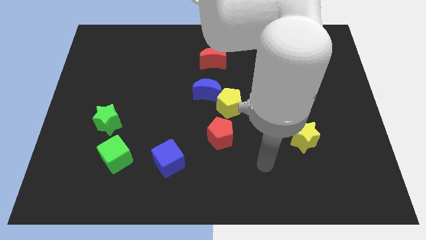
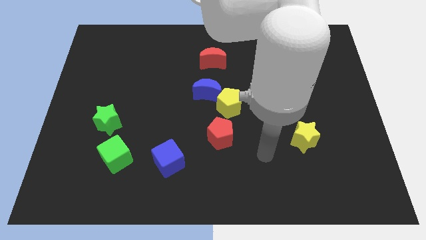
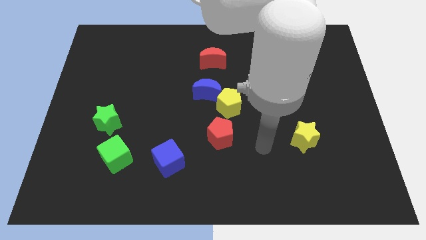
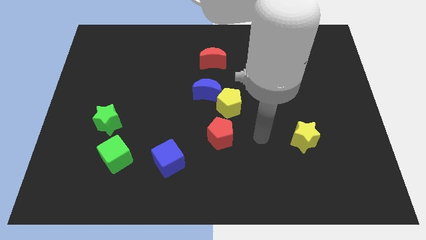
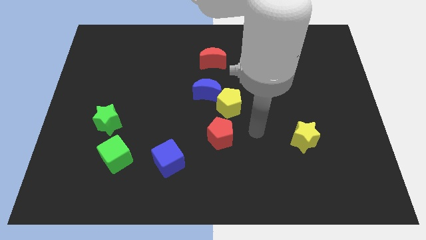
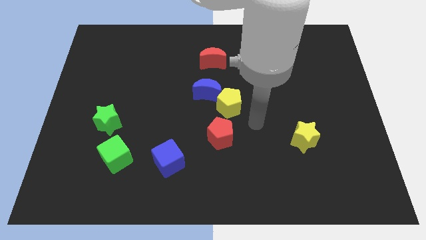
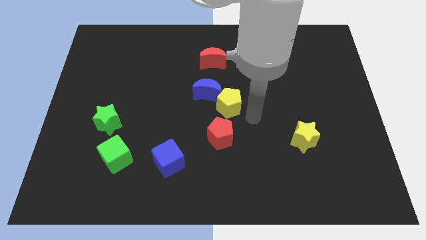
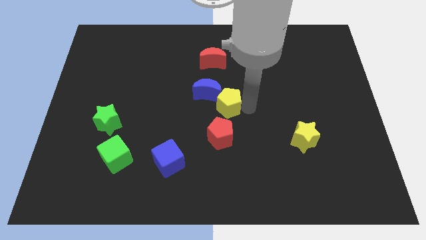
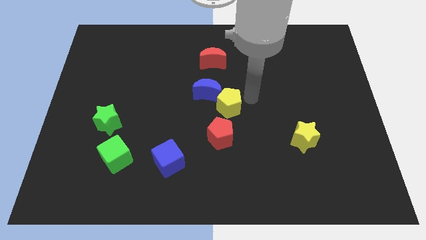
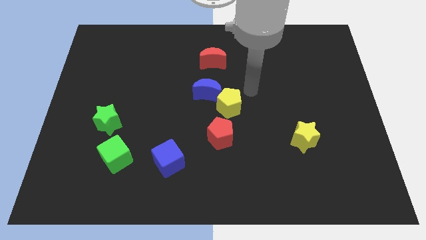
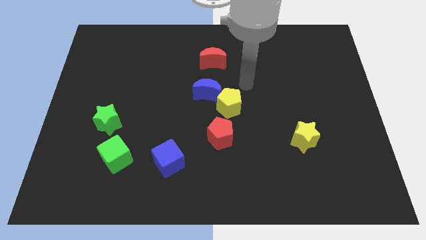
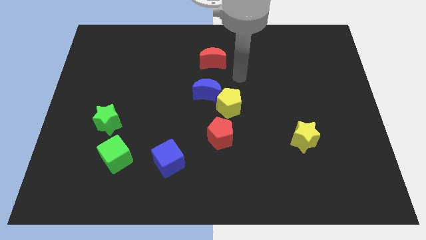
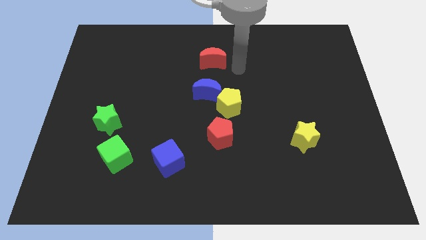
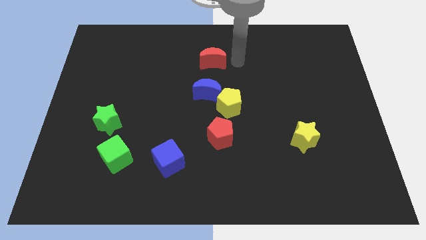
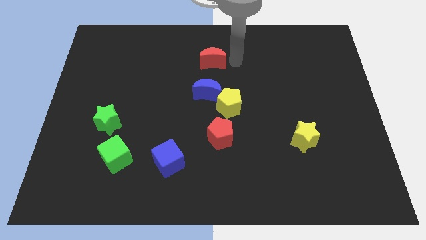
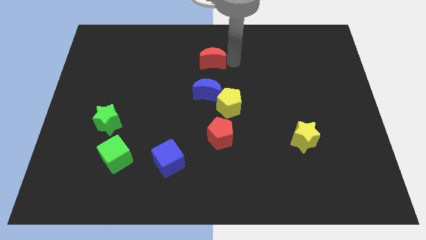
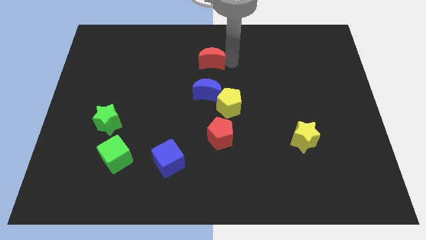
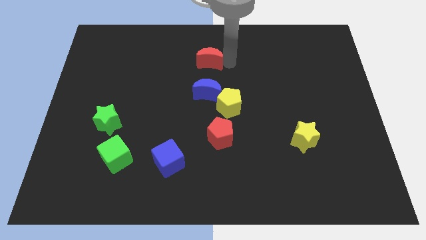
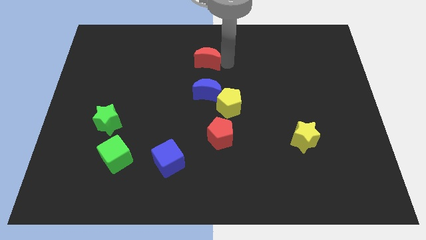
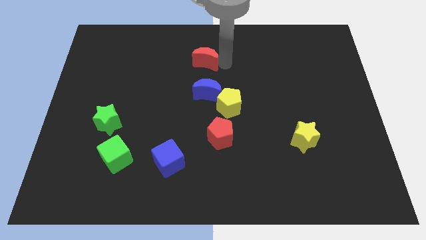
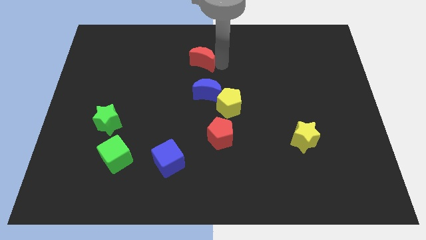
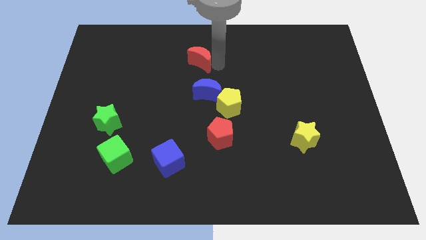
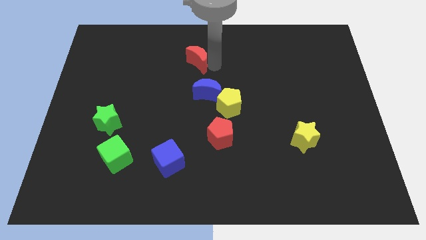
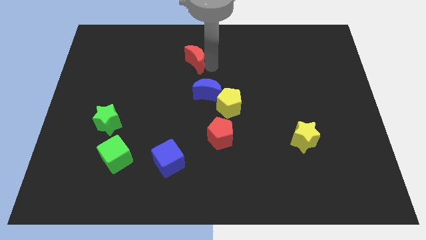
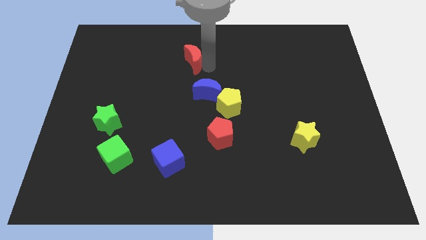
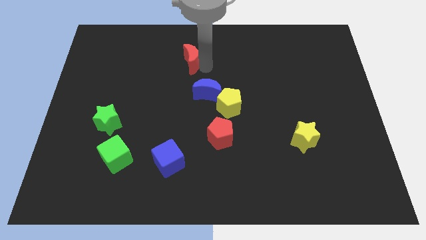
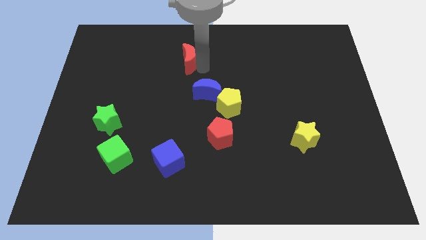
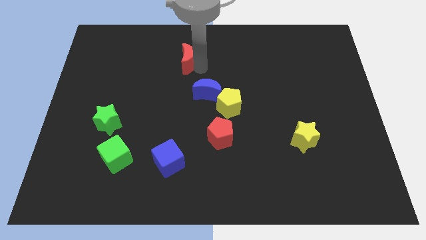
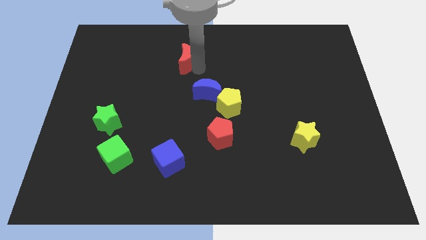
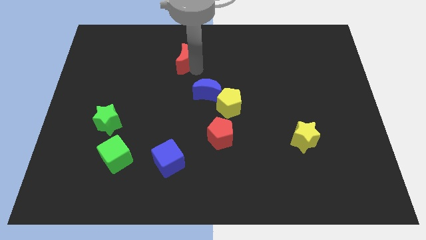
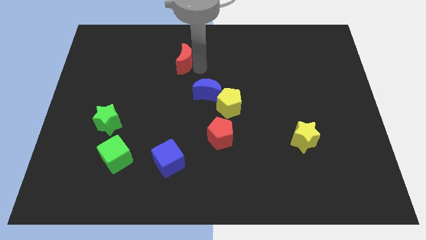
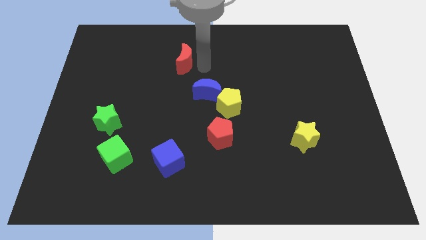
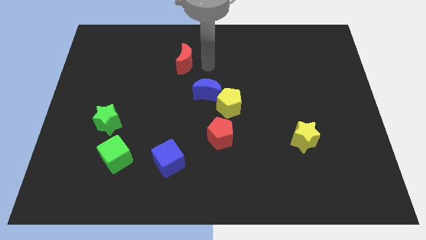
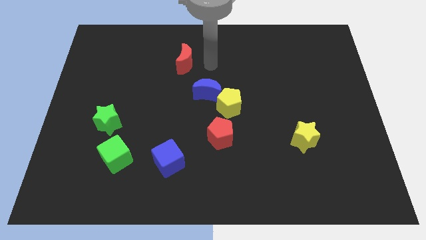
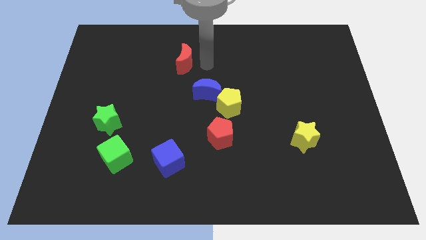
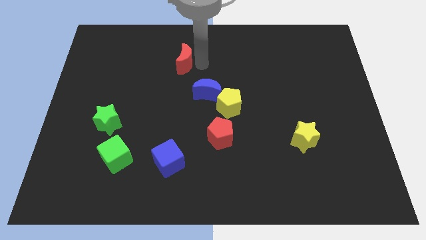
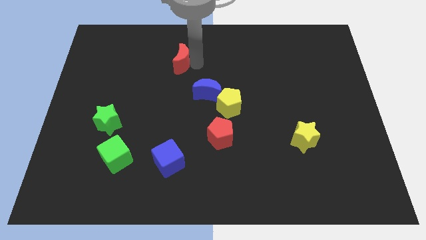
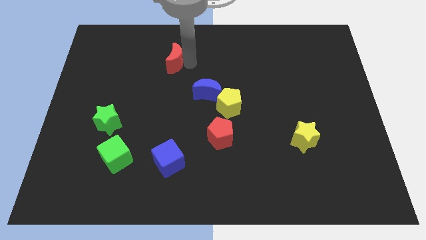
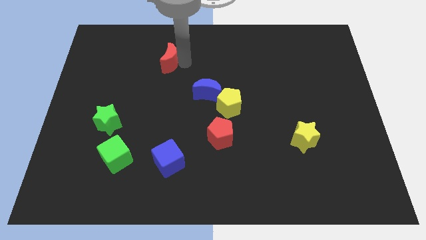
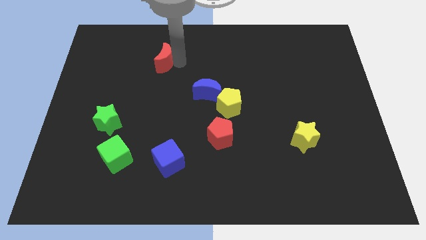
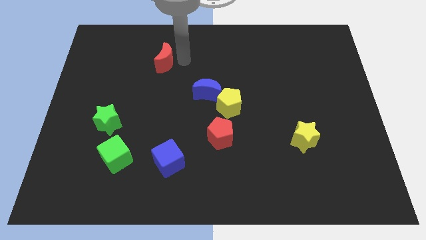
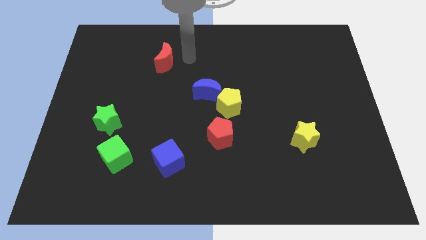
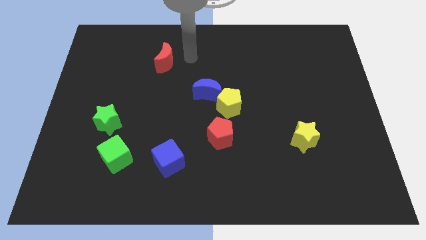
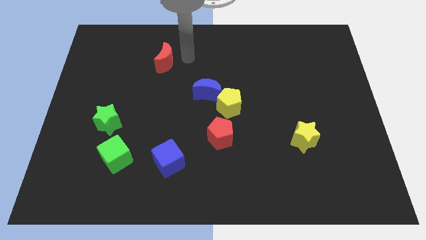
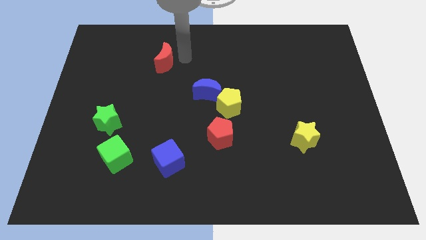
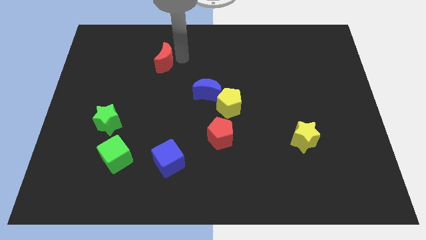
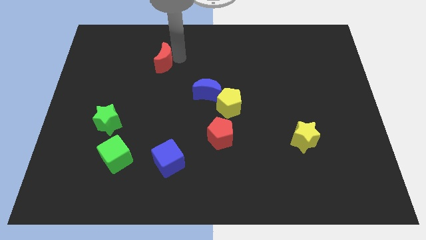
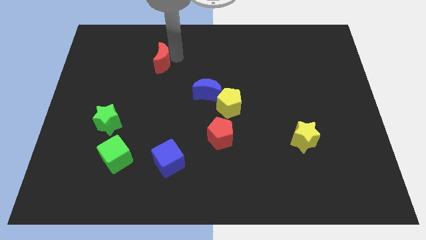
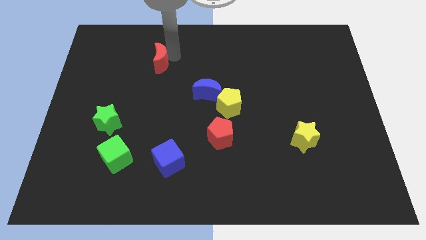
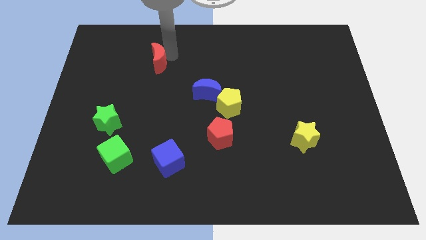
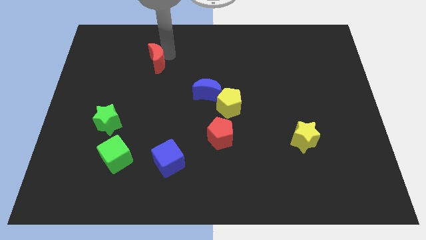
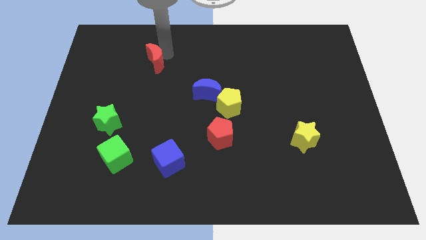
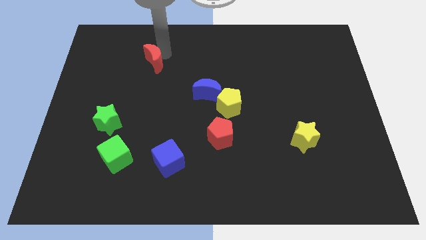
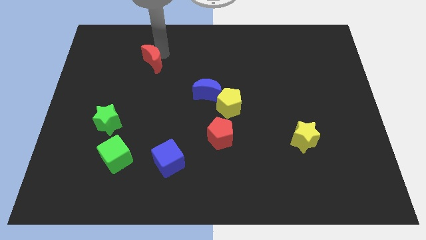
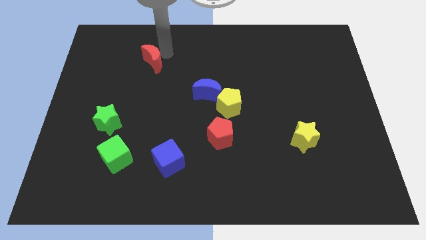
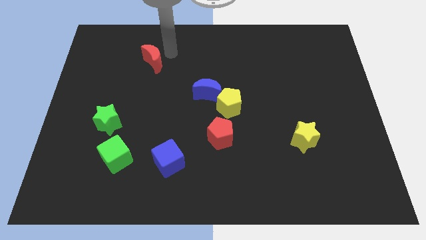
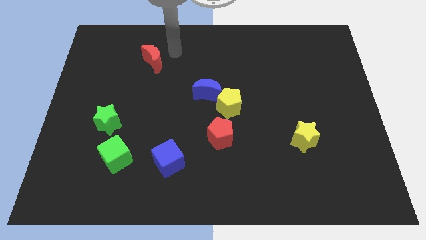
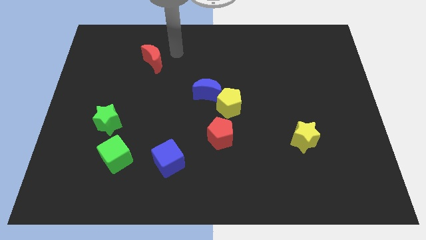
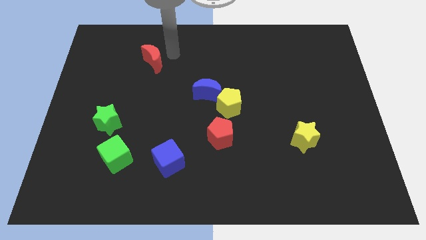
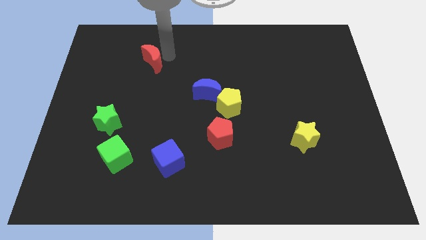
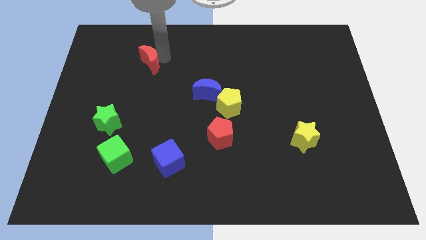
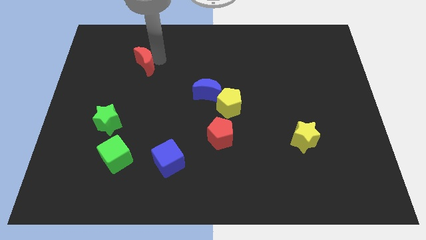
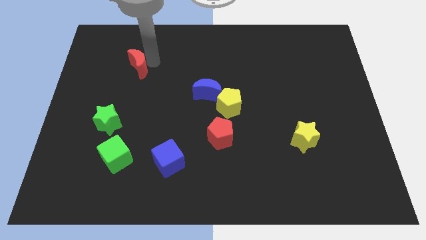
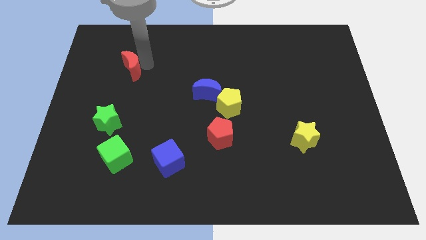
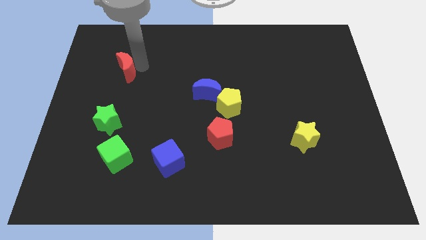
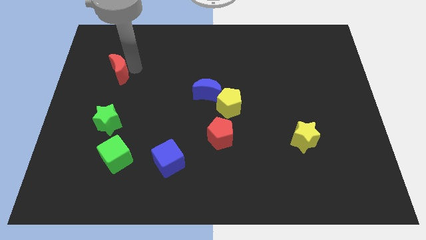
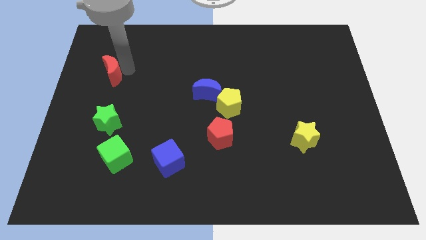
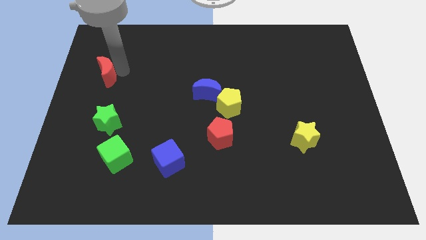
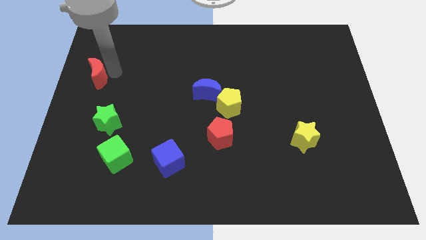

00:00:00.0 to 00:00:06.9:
push the red moon to the left side

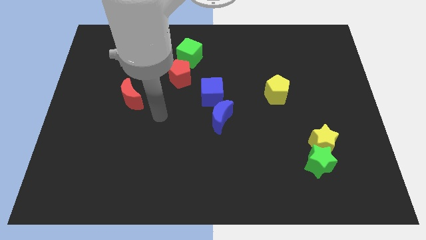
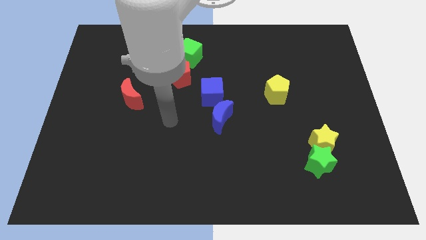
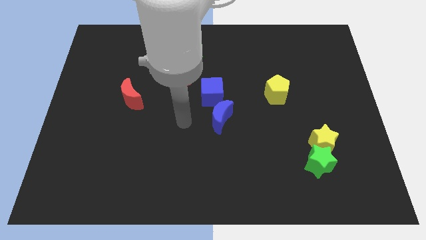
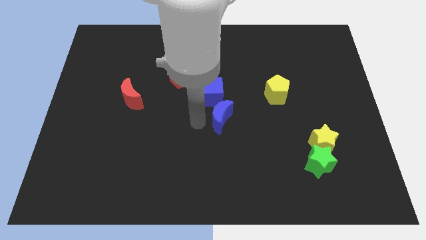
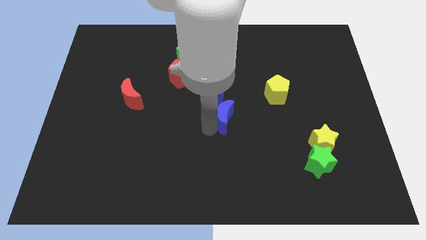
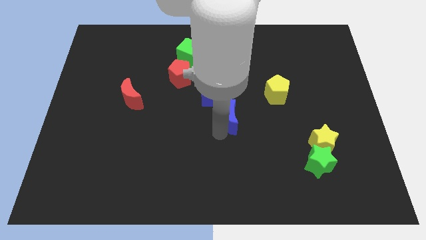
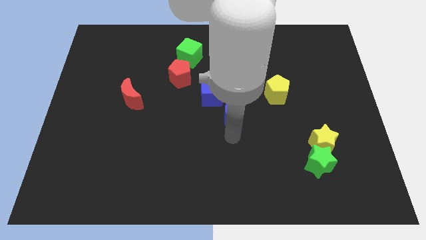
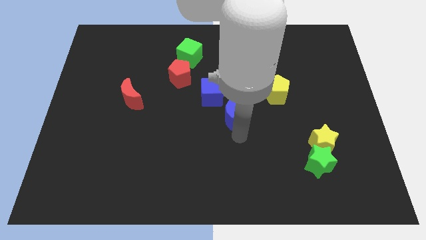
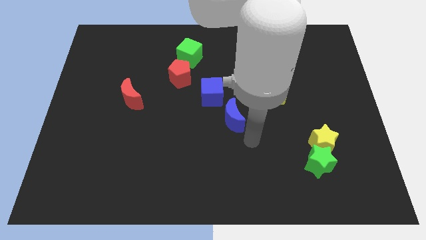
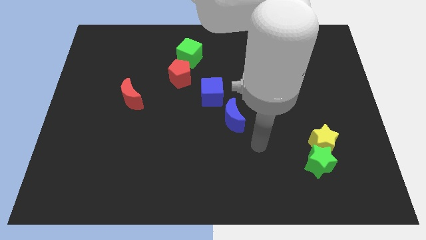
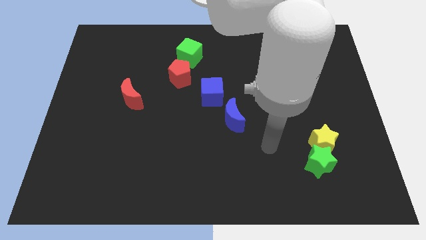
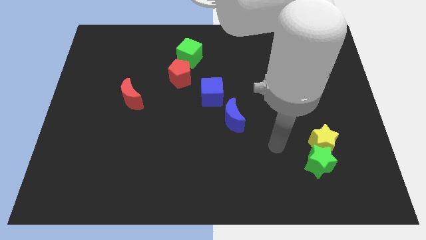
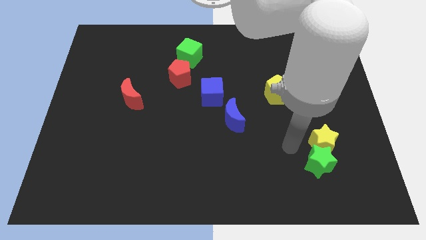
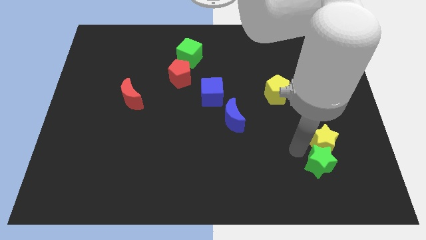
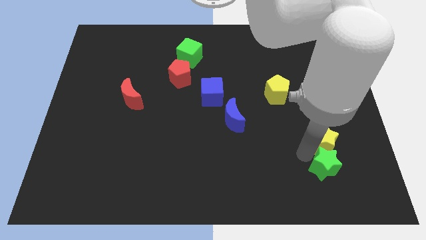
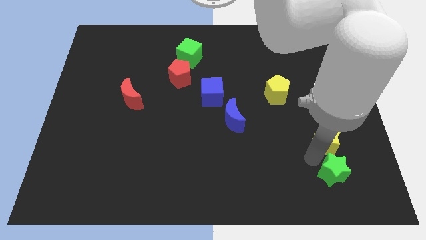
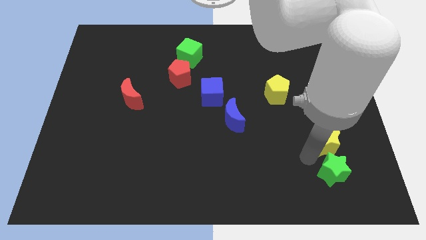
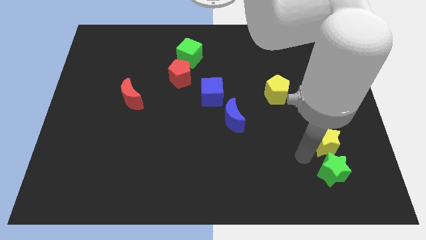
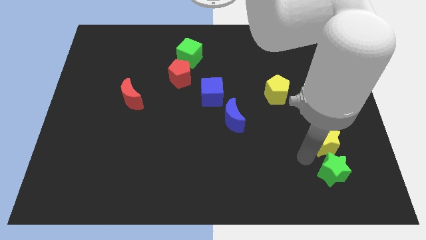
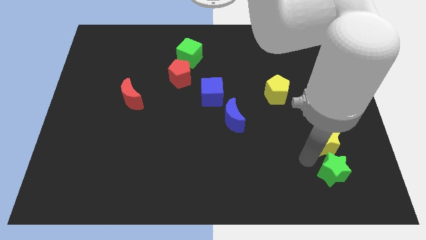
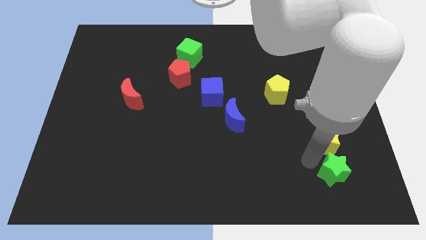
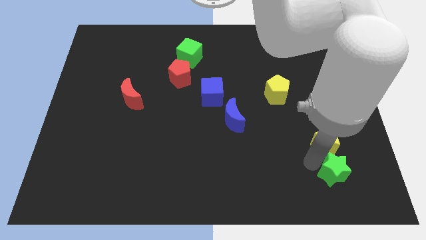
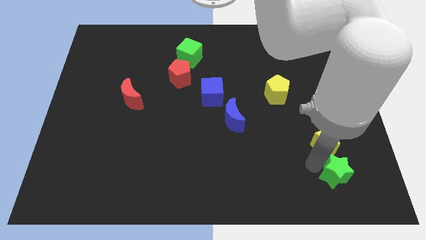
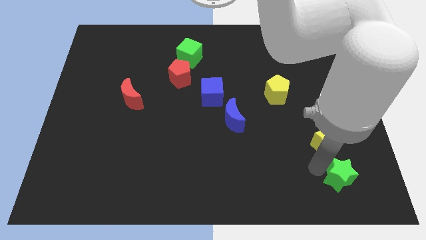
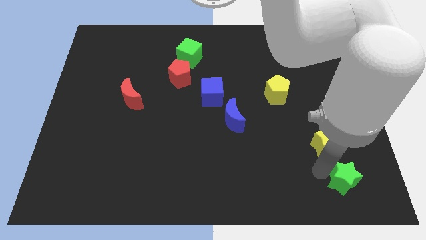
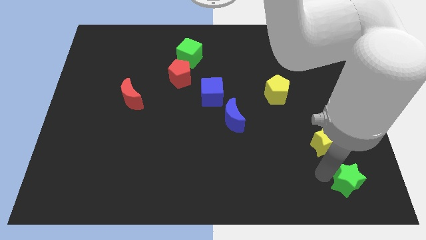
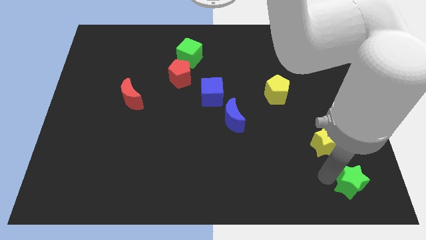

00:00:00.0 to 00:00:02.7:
put the green star to the bottom right of the board
